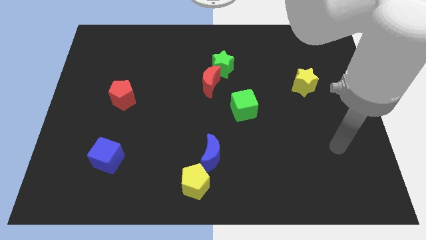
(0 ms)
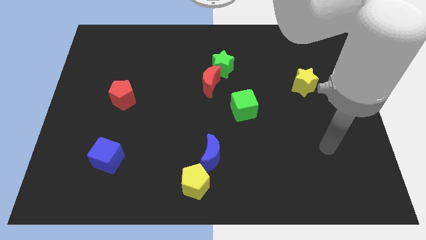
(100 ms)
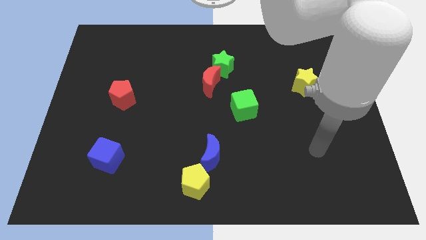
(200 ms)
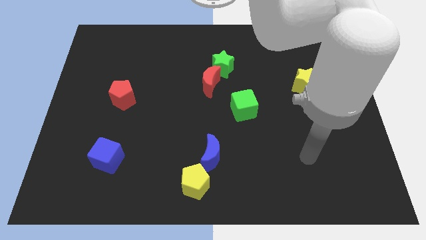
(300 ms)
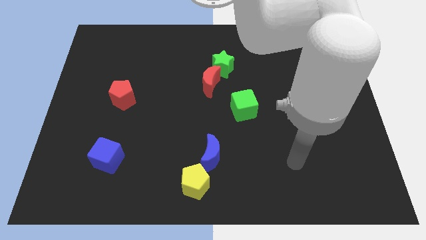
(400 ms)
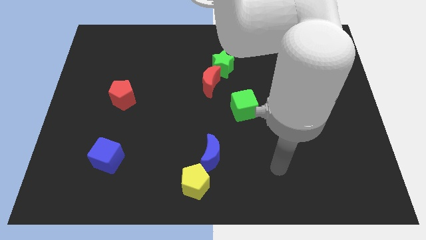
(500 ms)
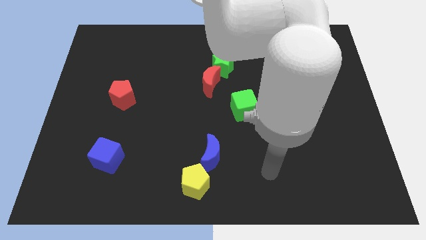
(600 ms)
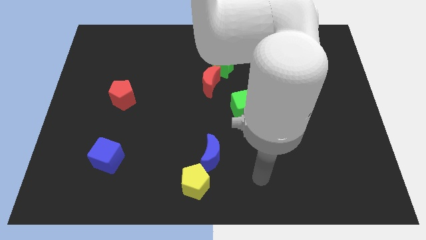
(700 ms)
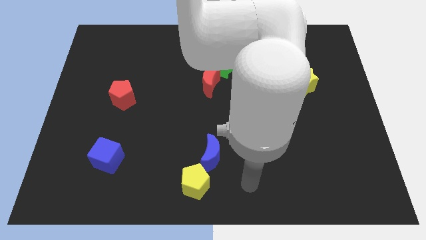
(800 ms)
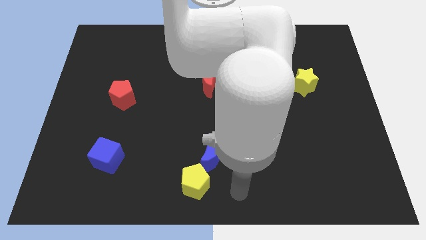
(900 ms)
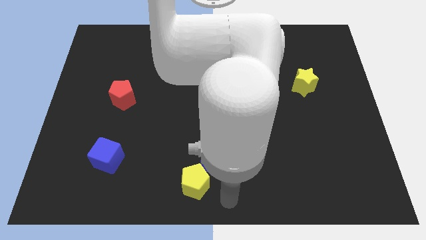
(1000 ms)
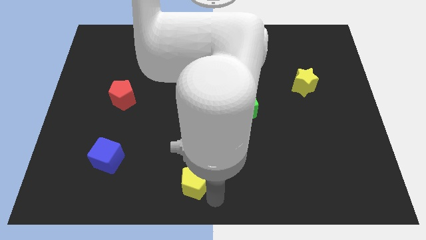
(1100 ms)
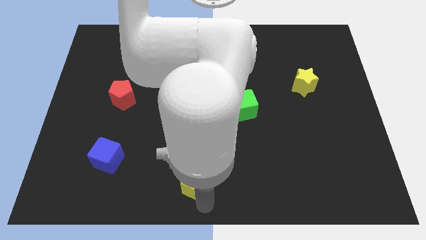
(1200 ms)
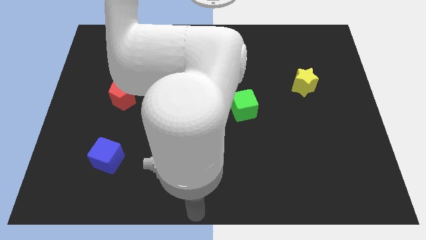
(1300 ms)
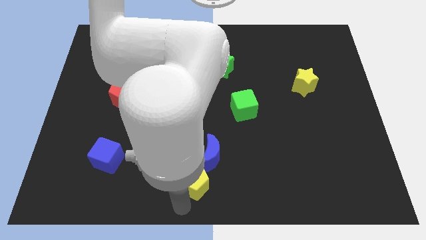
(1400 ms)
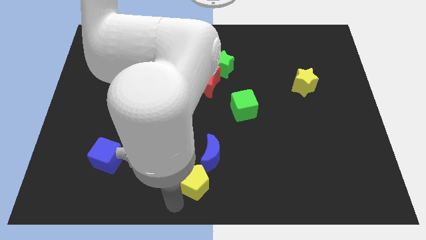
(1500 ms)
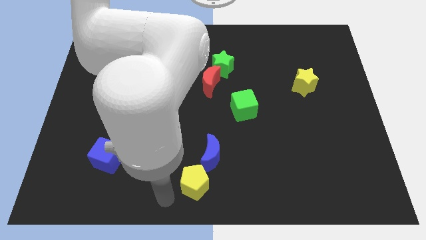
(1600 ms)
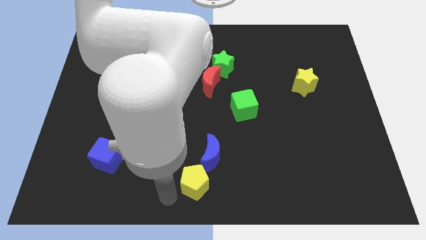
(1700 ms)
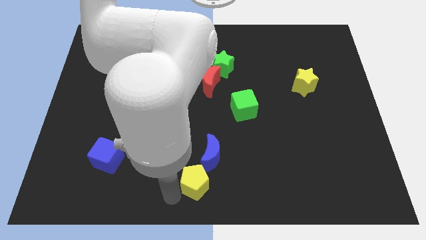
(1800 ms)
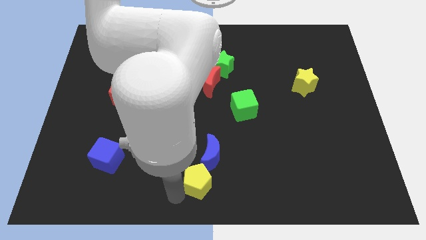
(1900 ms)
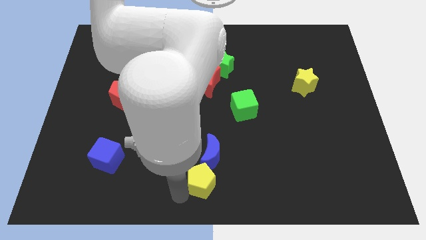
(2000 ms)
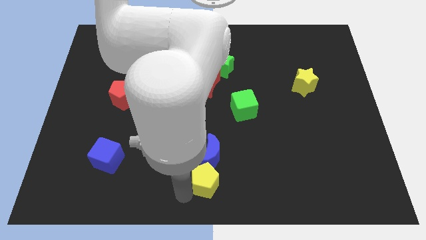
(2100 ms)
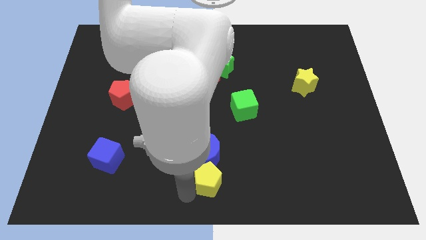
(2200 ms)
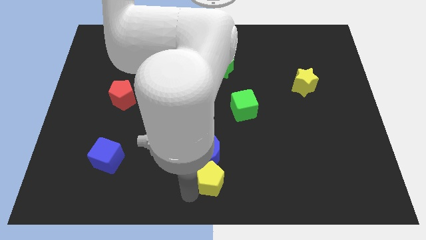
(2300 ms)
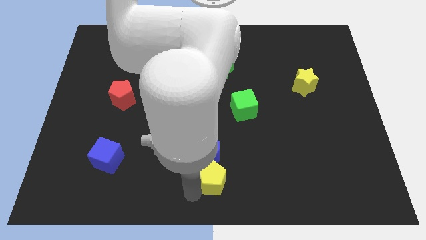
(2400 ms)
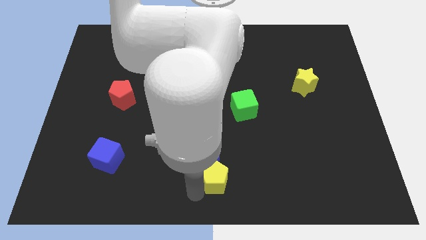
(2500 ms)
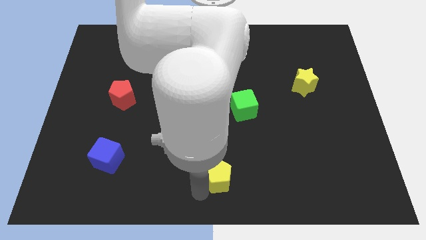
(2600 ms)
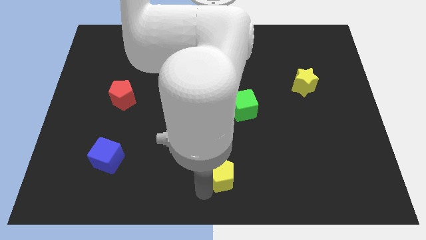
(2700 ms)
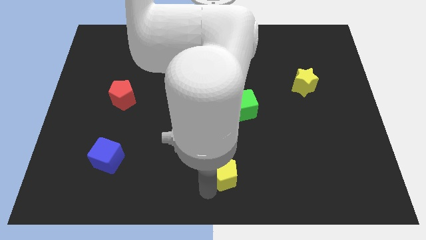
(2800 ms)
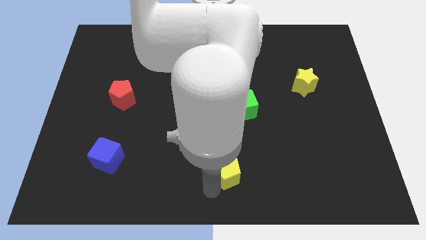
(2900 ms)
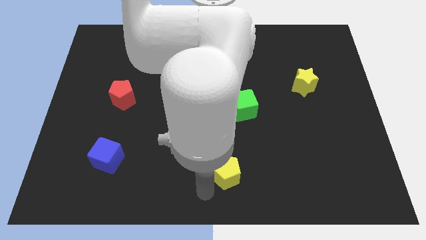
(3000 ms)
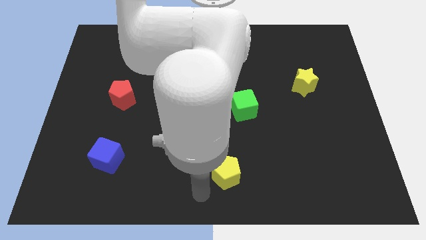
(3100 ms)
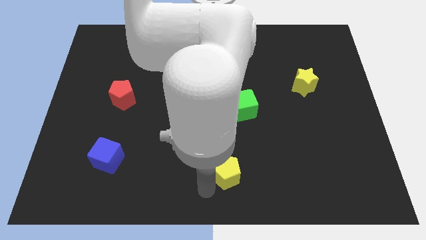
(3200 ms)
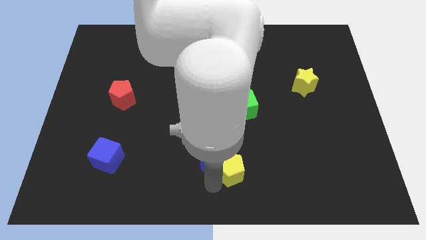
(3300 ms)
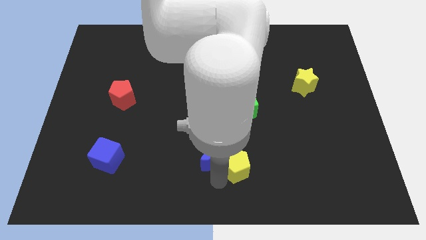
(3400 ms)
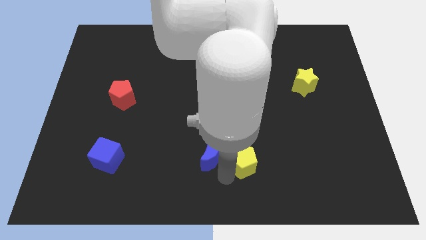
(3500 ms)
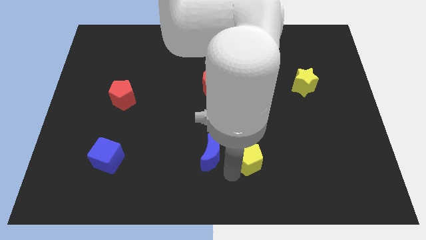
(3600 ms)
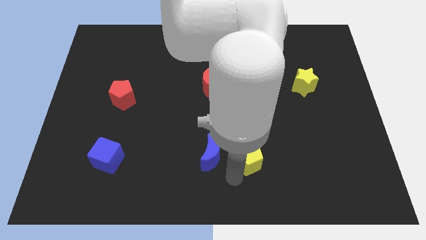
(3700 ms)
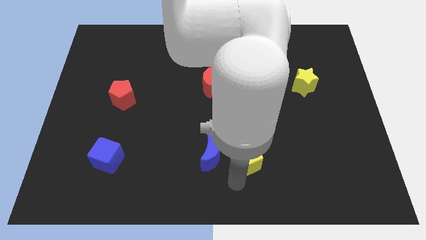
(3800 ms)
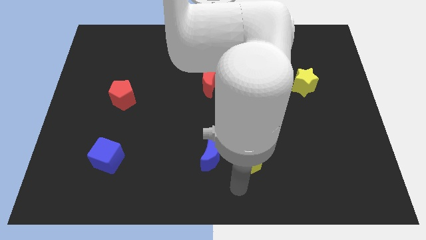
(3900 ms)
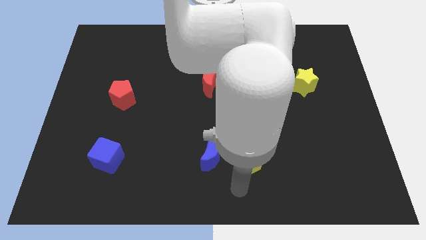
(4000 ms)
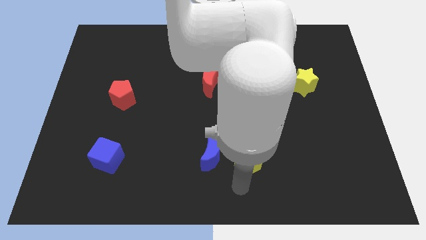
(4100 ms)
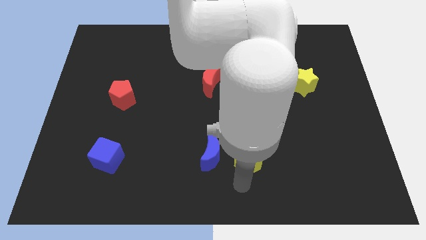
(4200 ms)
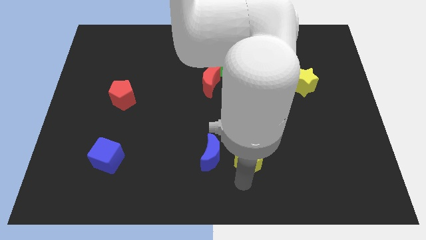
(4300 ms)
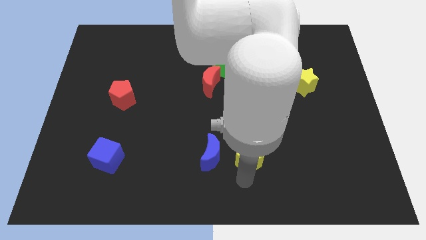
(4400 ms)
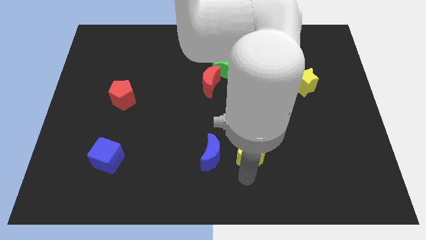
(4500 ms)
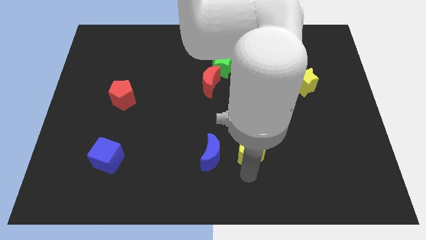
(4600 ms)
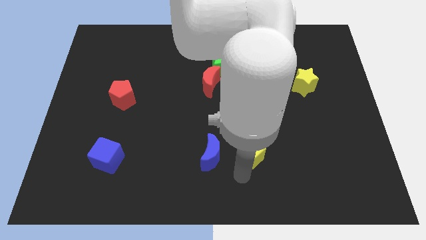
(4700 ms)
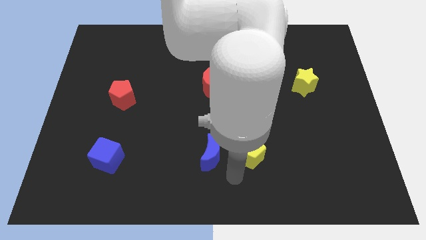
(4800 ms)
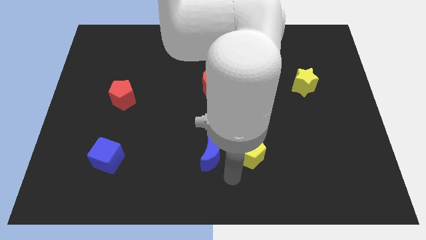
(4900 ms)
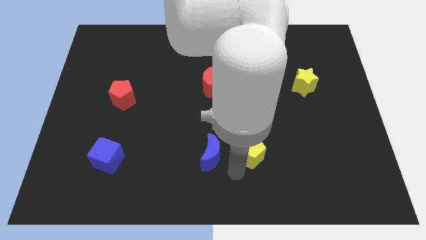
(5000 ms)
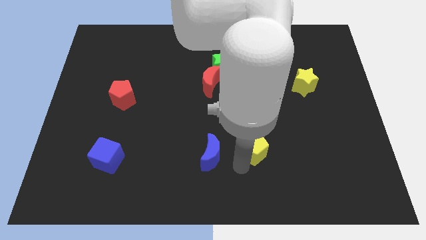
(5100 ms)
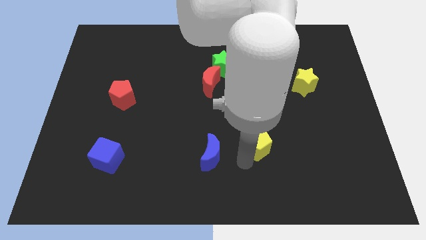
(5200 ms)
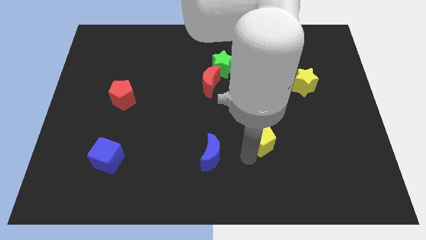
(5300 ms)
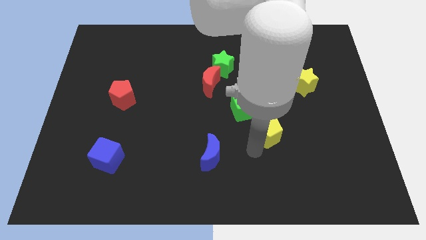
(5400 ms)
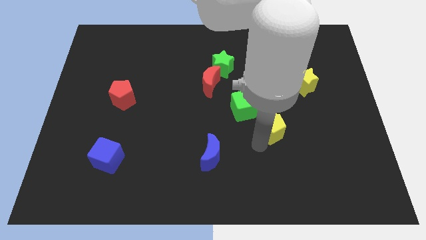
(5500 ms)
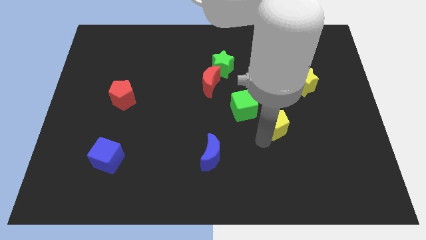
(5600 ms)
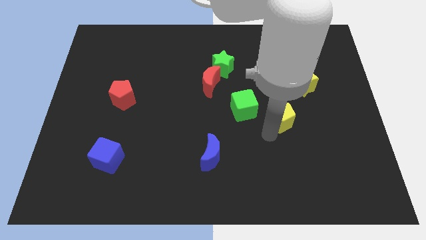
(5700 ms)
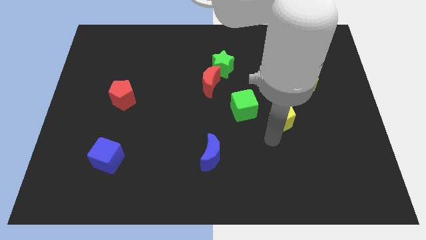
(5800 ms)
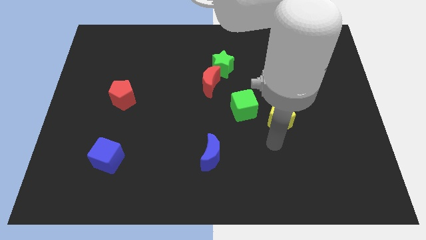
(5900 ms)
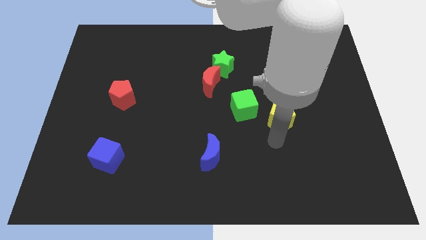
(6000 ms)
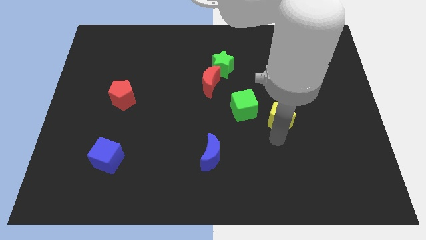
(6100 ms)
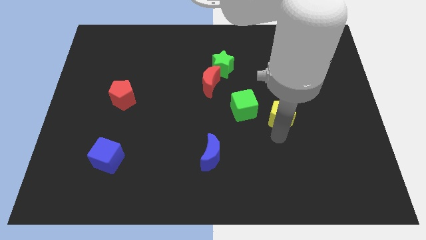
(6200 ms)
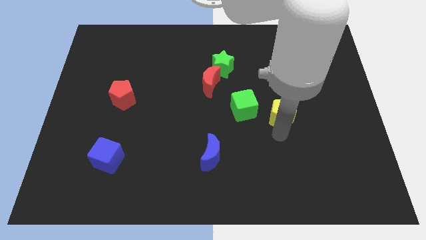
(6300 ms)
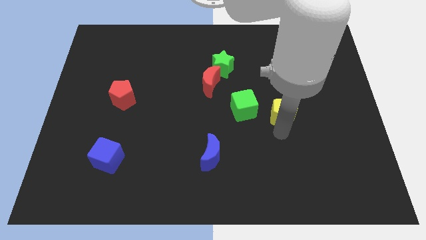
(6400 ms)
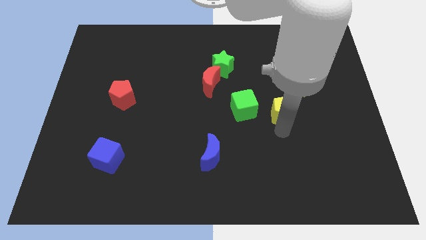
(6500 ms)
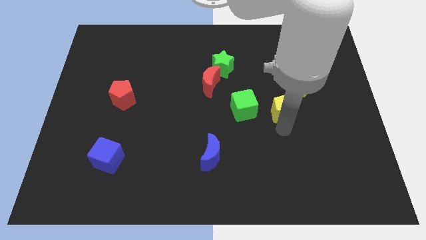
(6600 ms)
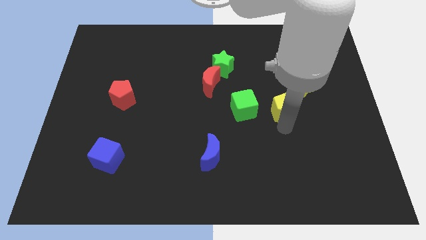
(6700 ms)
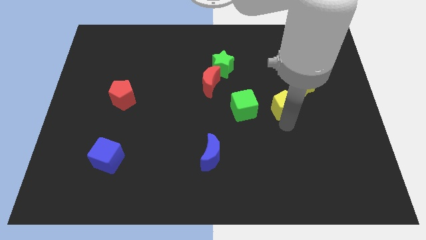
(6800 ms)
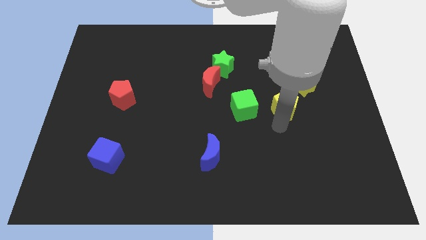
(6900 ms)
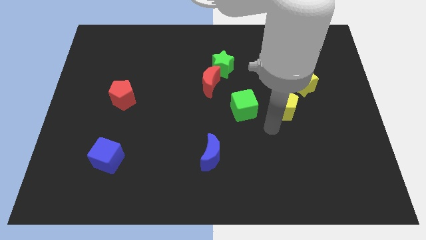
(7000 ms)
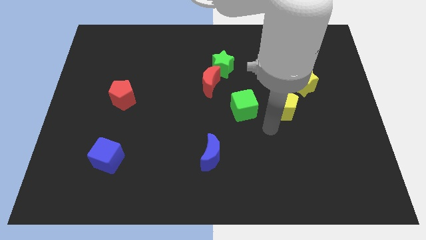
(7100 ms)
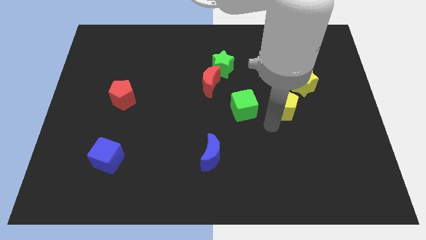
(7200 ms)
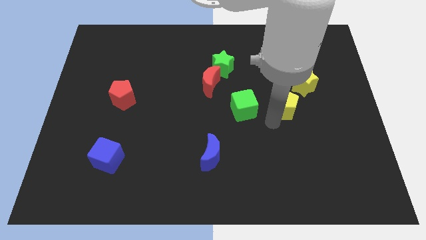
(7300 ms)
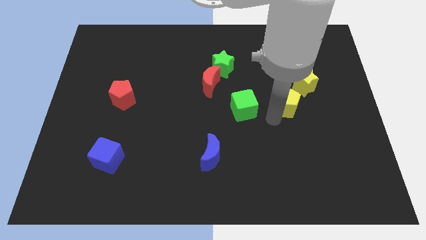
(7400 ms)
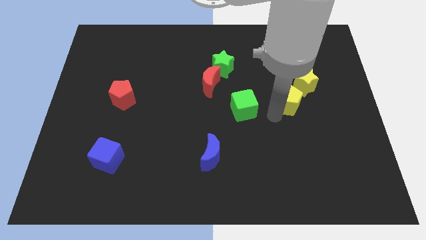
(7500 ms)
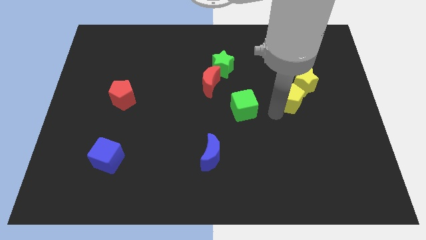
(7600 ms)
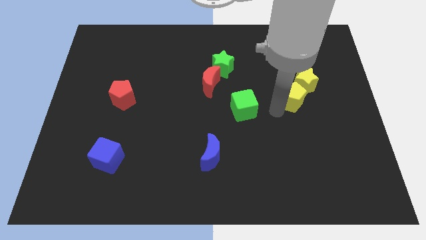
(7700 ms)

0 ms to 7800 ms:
push the yellow pentagon to the yellow star
